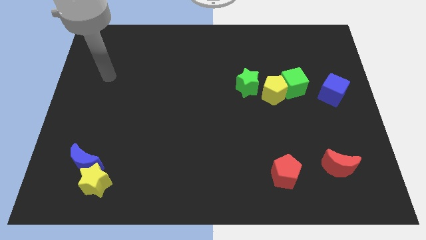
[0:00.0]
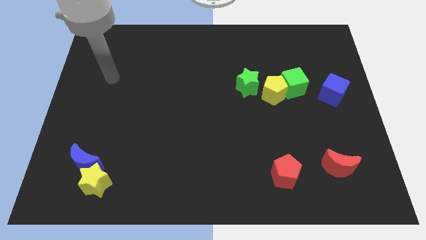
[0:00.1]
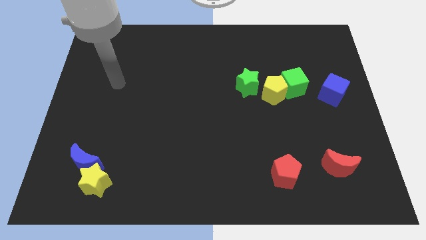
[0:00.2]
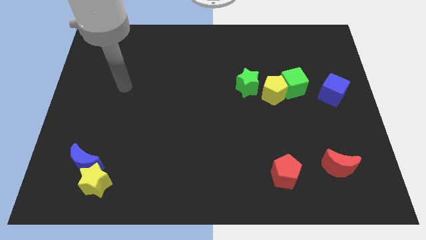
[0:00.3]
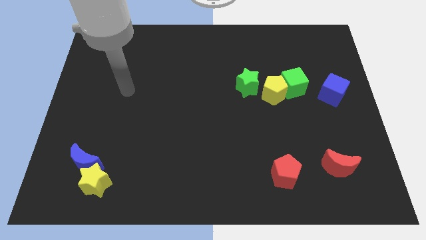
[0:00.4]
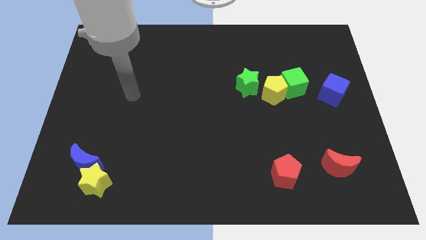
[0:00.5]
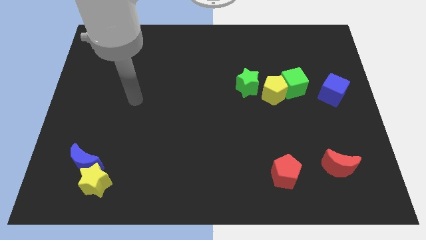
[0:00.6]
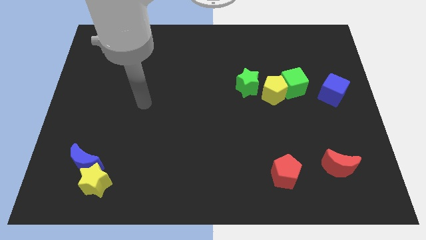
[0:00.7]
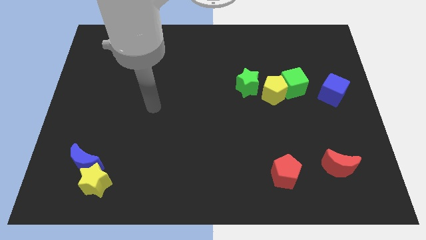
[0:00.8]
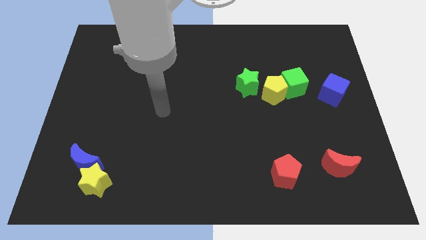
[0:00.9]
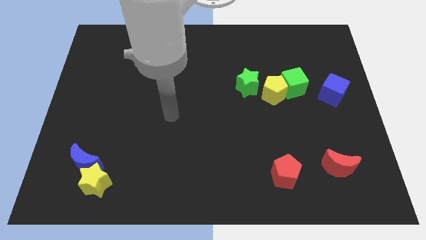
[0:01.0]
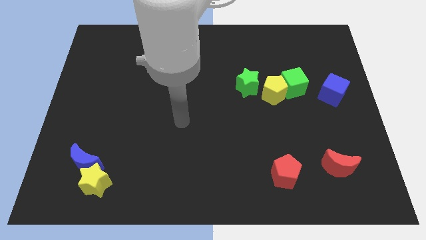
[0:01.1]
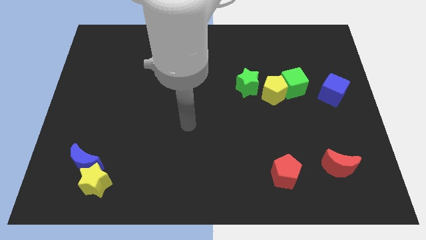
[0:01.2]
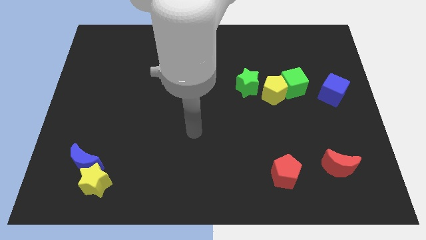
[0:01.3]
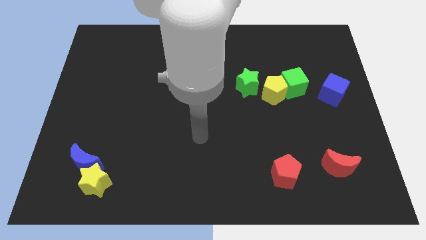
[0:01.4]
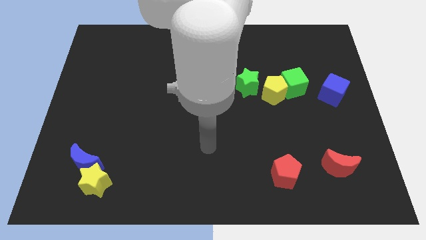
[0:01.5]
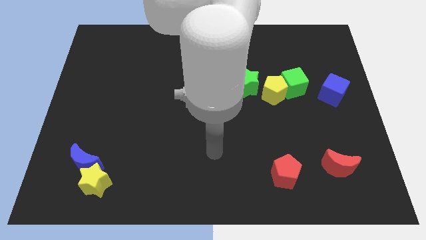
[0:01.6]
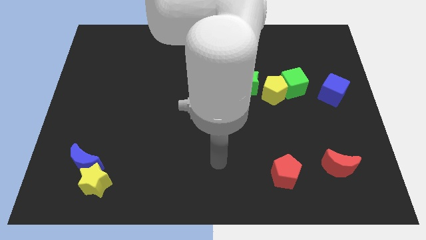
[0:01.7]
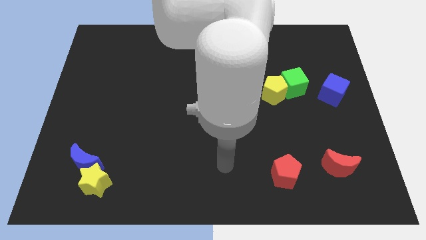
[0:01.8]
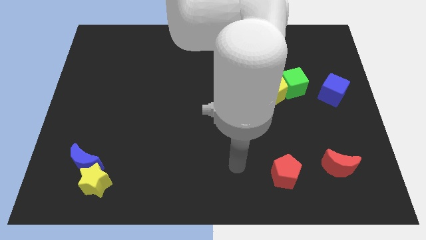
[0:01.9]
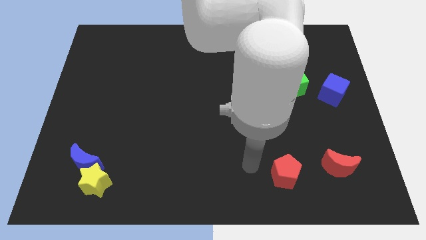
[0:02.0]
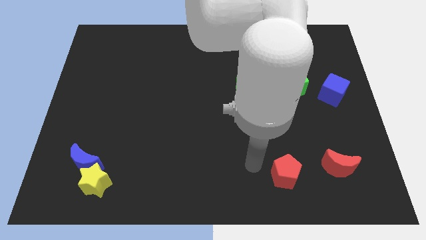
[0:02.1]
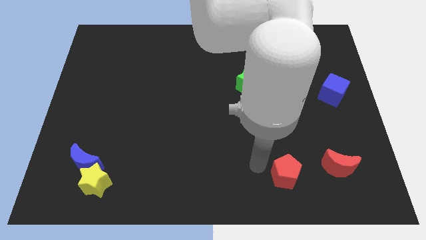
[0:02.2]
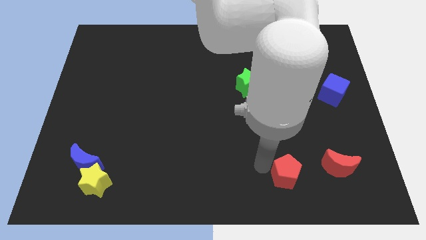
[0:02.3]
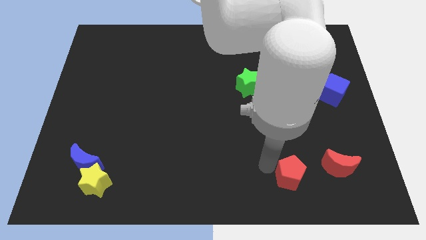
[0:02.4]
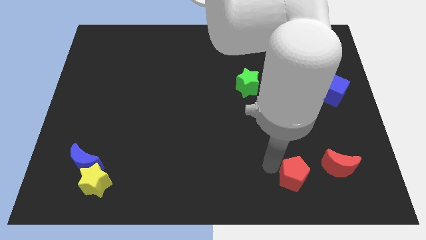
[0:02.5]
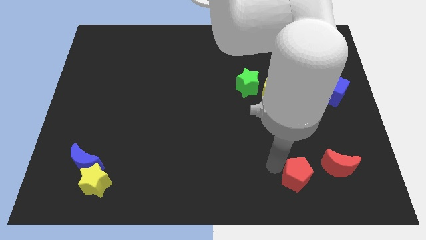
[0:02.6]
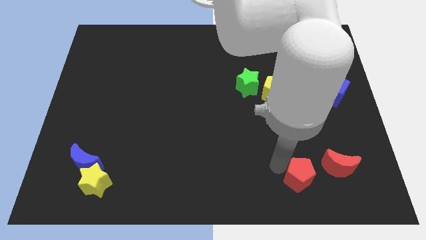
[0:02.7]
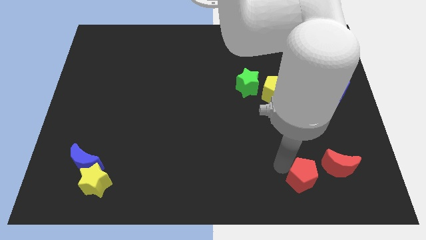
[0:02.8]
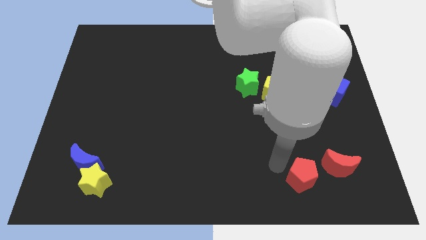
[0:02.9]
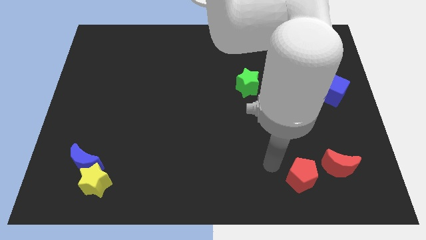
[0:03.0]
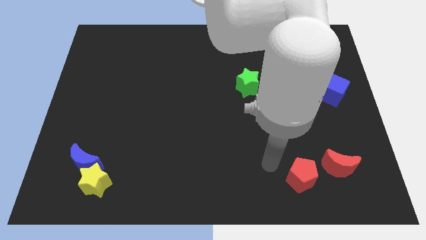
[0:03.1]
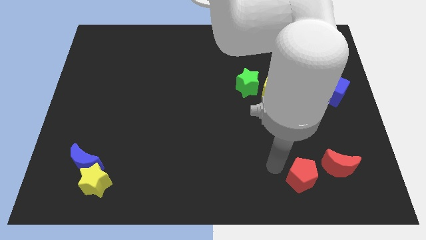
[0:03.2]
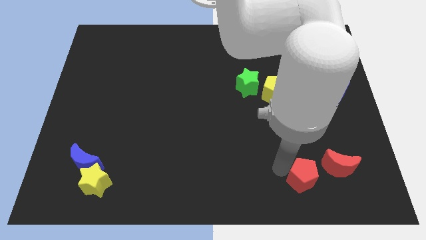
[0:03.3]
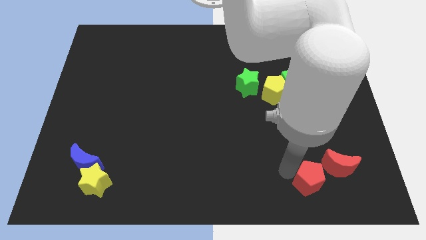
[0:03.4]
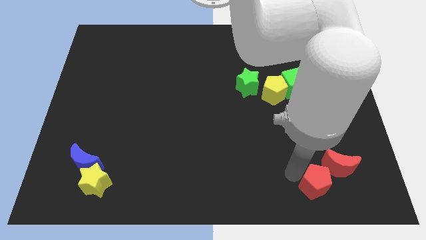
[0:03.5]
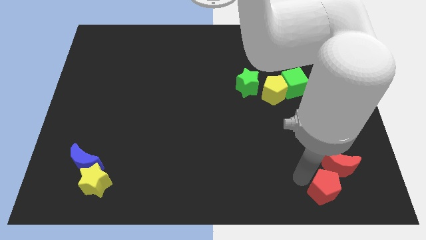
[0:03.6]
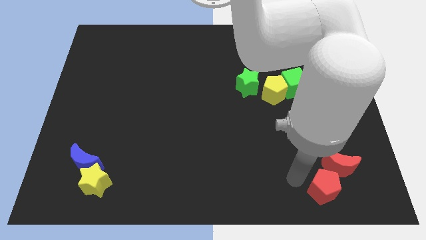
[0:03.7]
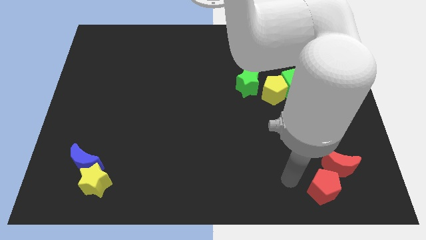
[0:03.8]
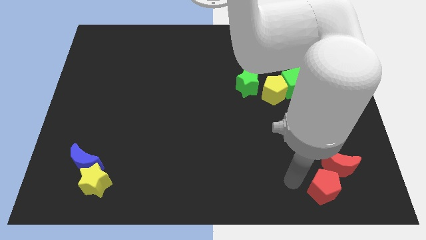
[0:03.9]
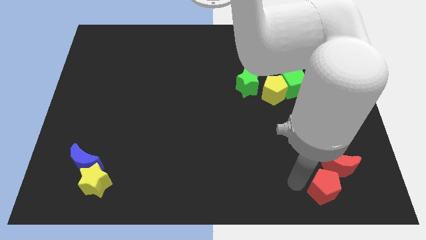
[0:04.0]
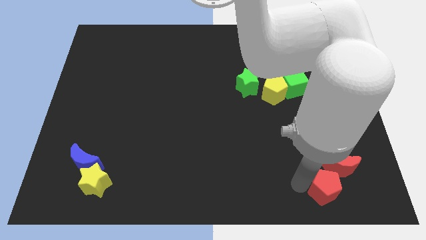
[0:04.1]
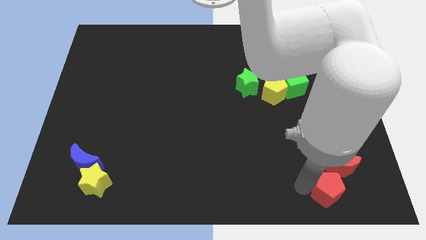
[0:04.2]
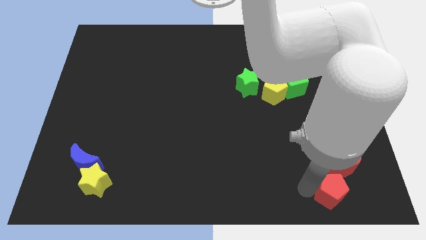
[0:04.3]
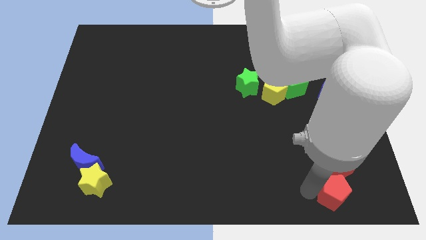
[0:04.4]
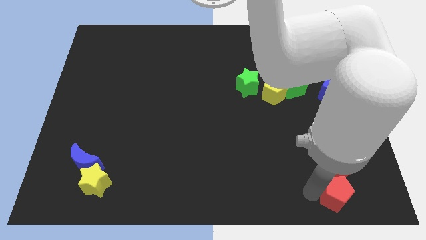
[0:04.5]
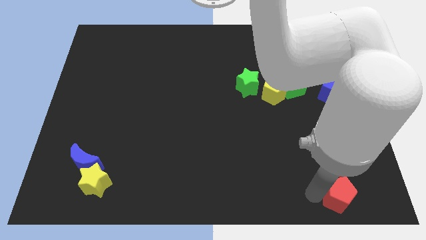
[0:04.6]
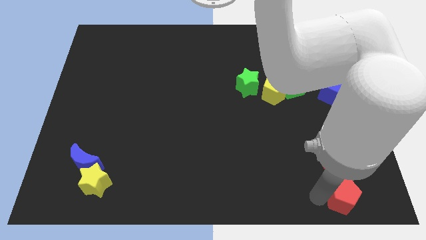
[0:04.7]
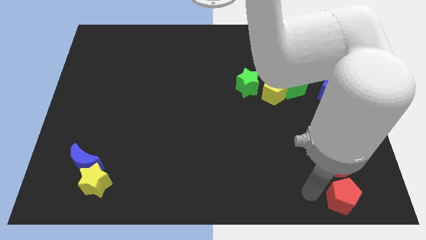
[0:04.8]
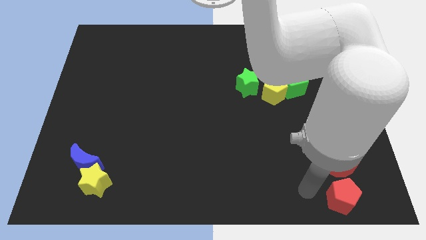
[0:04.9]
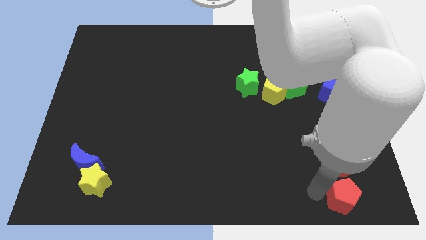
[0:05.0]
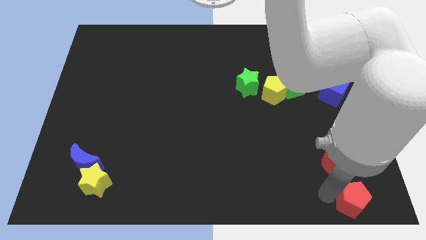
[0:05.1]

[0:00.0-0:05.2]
put the red pentagon to the lower right corner
